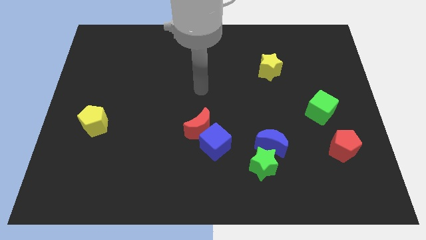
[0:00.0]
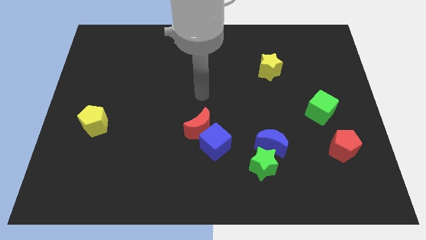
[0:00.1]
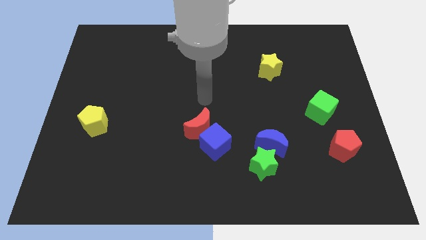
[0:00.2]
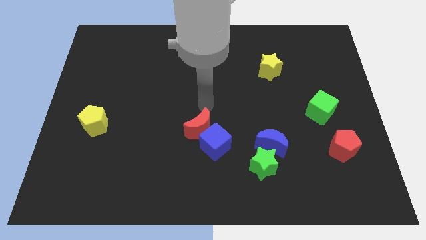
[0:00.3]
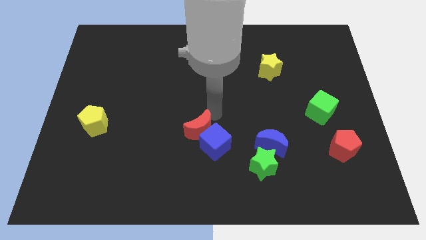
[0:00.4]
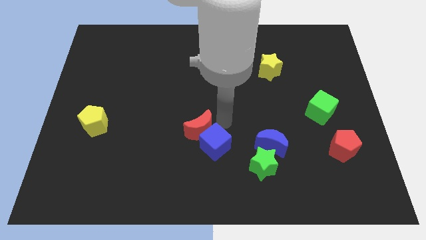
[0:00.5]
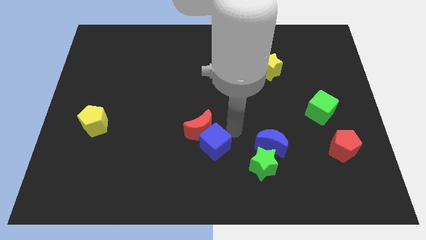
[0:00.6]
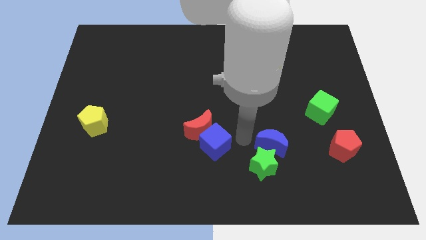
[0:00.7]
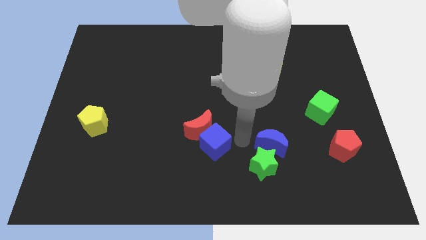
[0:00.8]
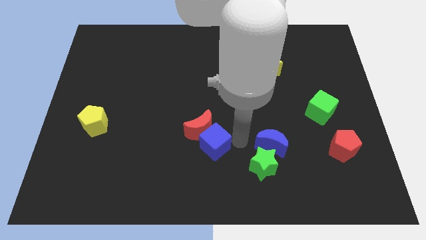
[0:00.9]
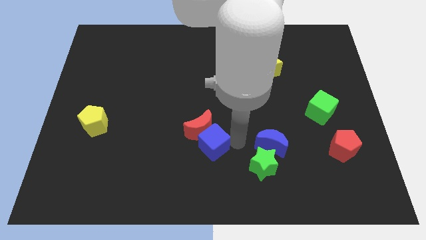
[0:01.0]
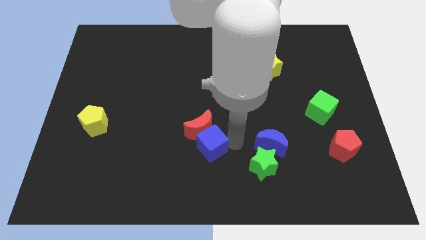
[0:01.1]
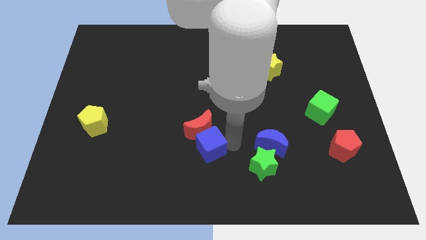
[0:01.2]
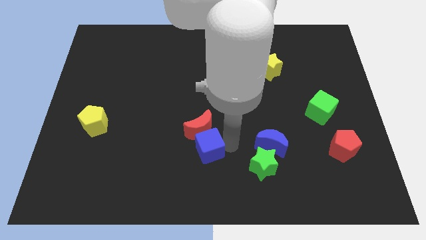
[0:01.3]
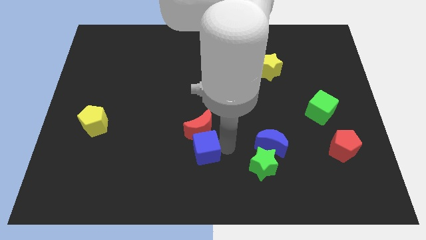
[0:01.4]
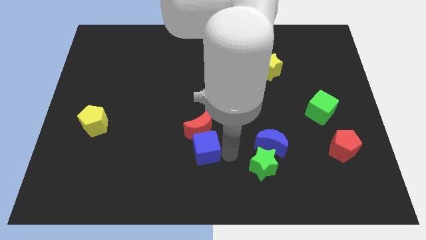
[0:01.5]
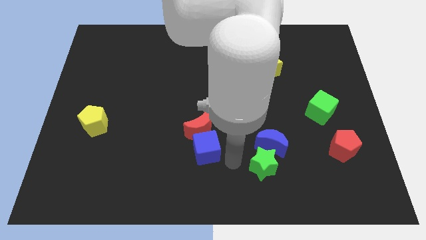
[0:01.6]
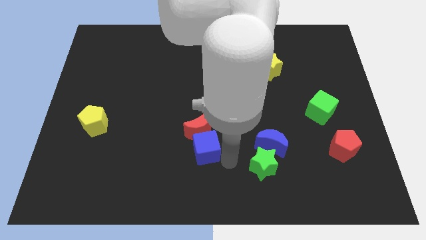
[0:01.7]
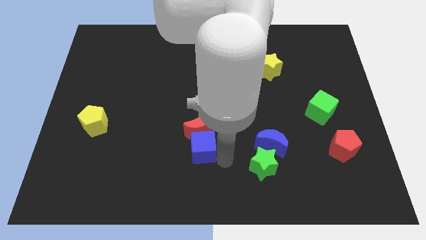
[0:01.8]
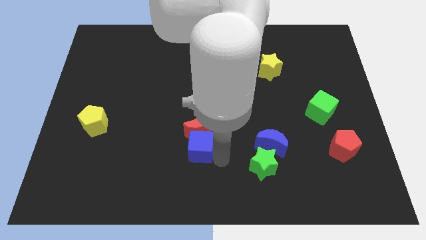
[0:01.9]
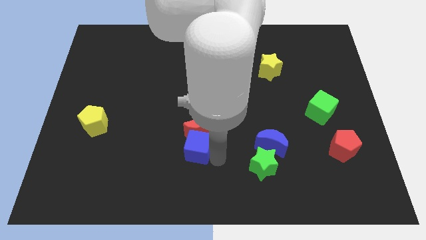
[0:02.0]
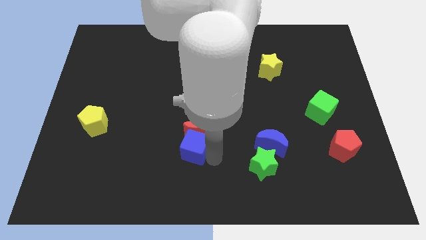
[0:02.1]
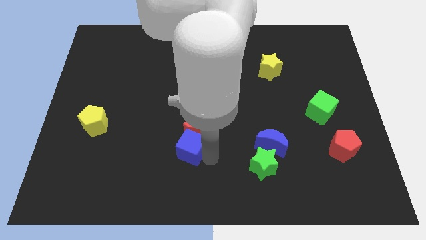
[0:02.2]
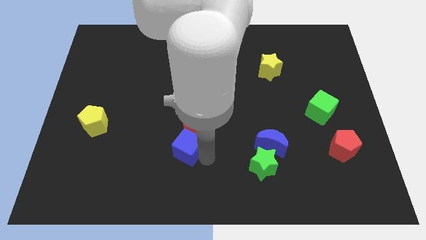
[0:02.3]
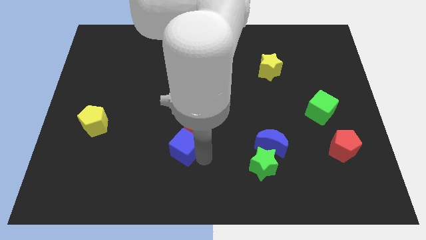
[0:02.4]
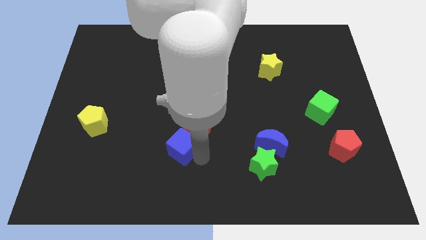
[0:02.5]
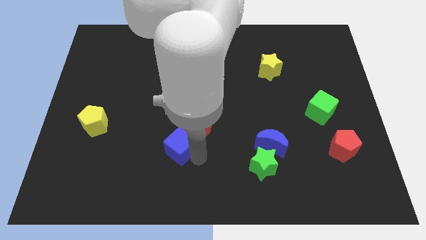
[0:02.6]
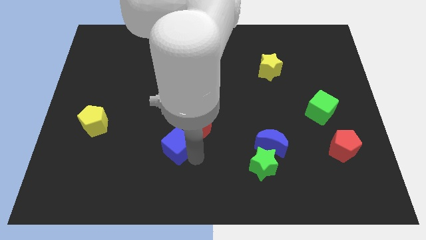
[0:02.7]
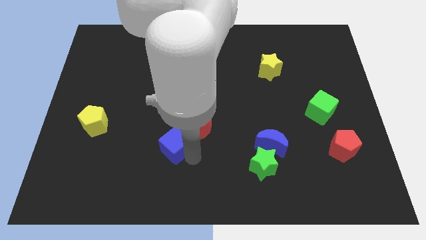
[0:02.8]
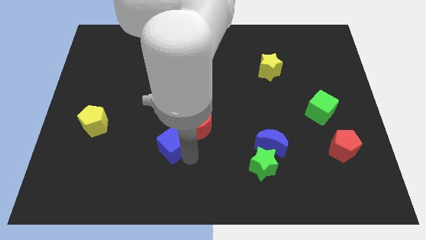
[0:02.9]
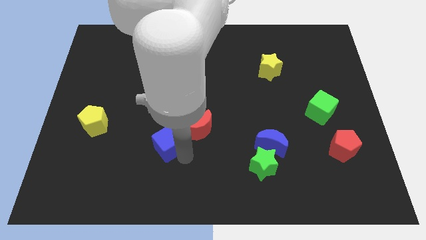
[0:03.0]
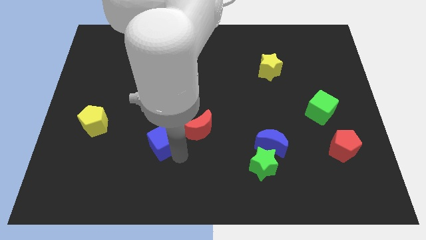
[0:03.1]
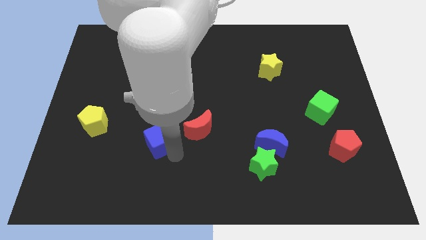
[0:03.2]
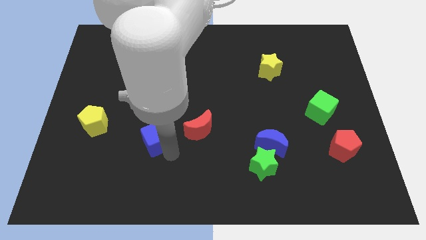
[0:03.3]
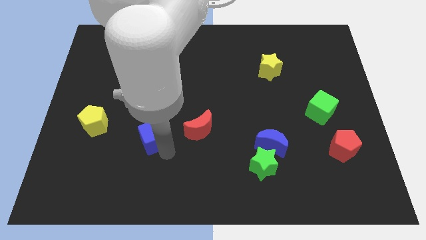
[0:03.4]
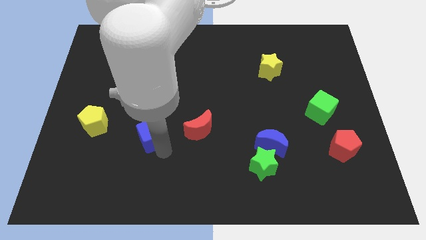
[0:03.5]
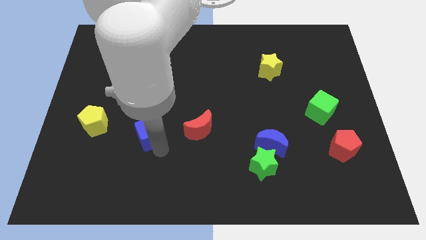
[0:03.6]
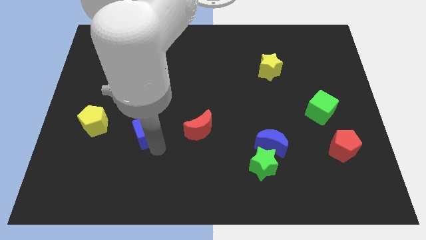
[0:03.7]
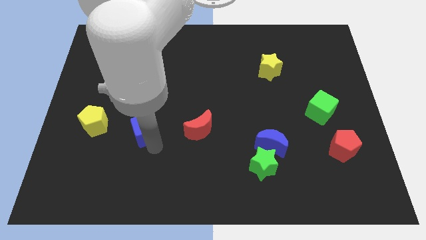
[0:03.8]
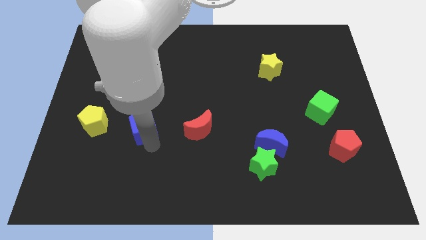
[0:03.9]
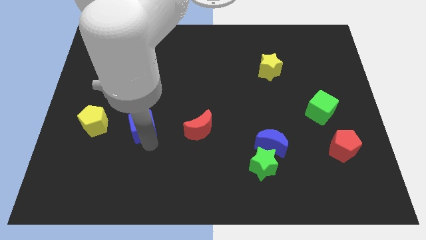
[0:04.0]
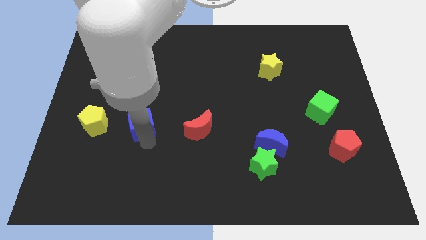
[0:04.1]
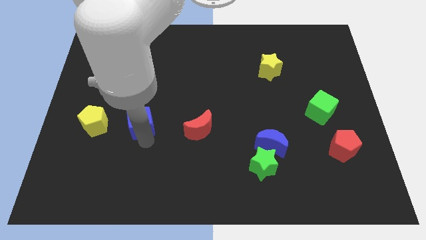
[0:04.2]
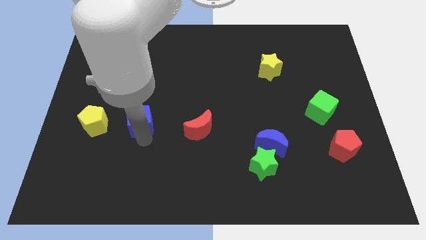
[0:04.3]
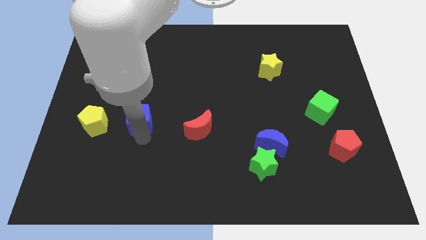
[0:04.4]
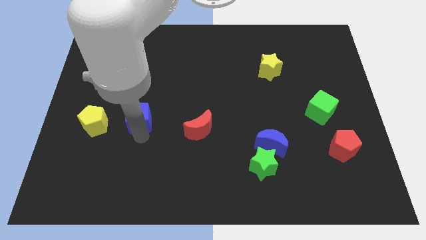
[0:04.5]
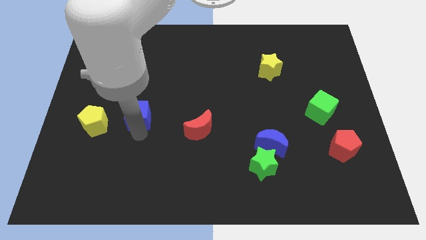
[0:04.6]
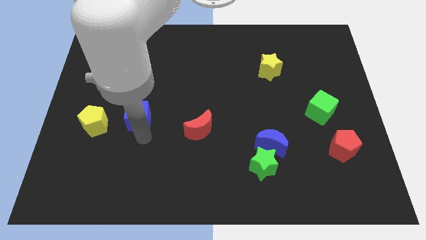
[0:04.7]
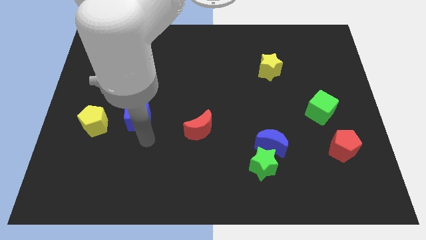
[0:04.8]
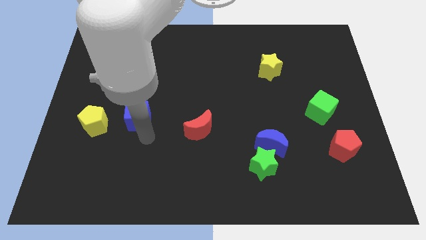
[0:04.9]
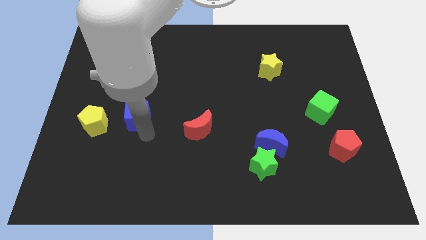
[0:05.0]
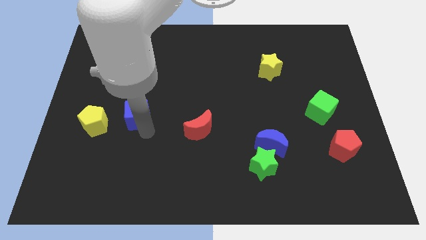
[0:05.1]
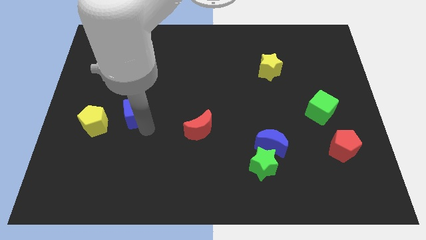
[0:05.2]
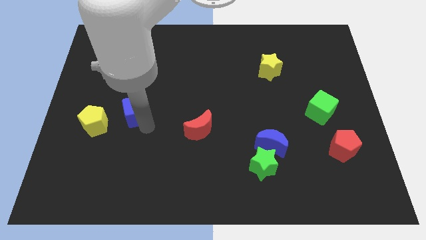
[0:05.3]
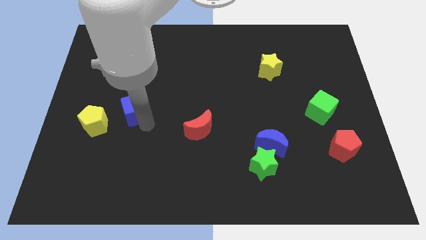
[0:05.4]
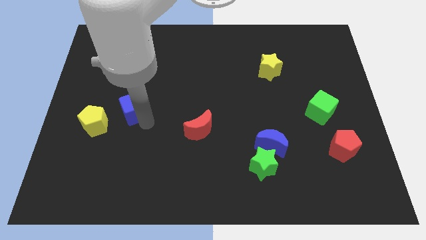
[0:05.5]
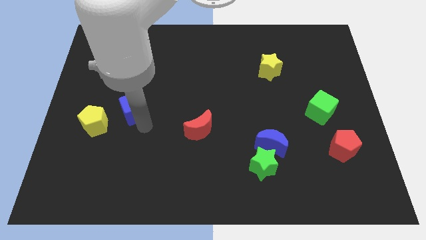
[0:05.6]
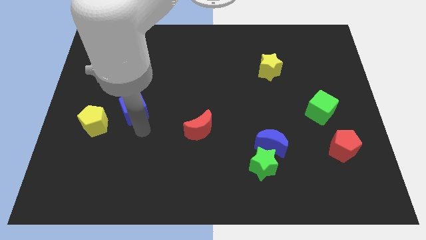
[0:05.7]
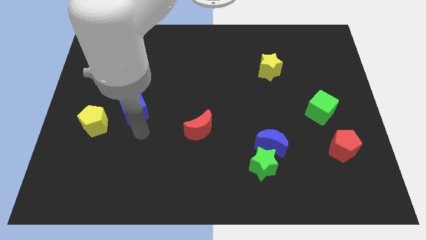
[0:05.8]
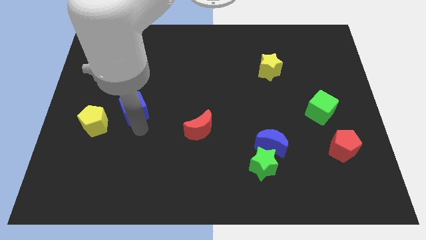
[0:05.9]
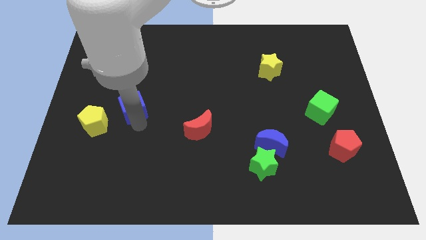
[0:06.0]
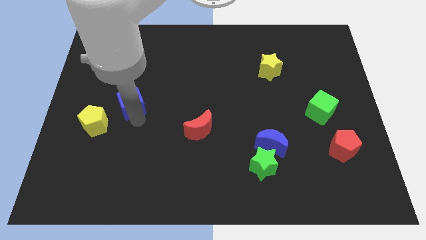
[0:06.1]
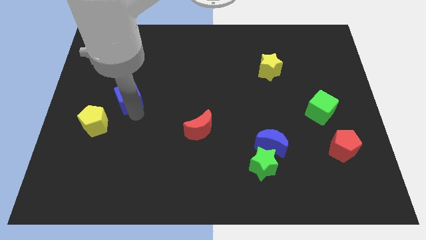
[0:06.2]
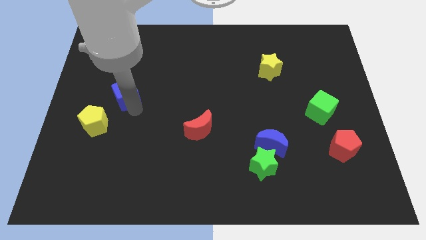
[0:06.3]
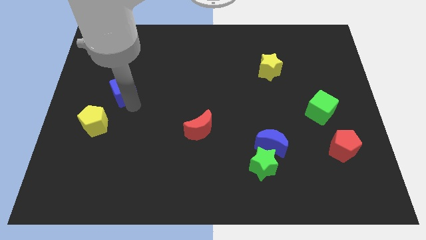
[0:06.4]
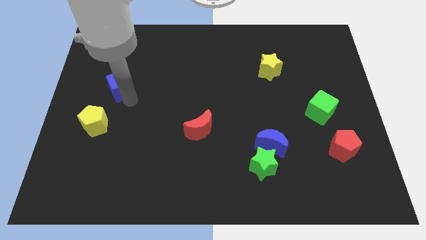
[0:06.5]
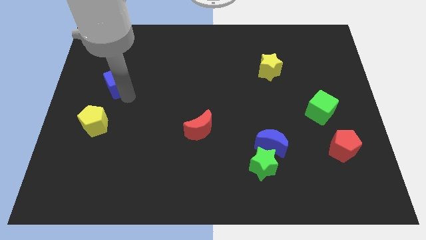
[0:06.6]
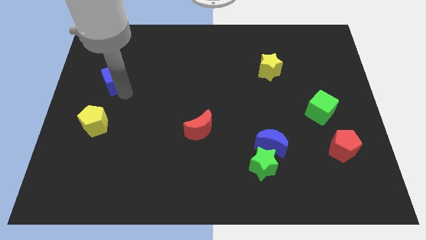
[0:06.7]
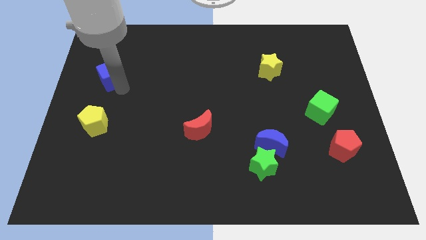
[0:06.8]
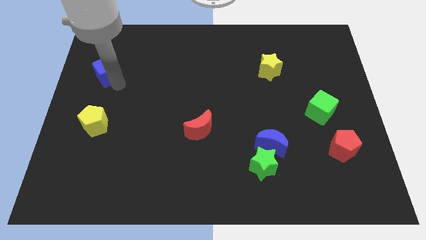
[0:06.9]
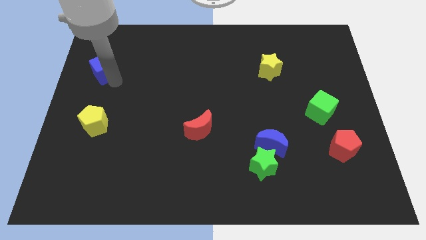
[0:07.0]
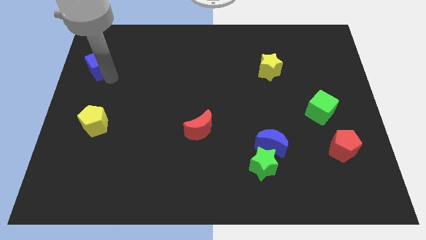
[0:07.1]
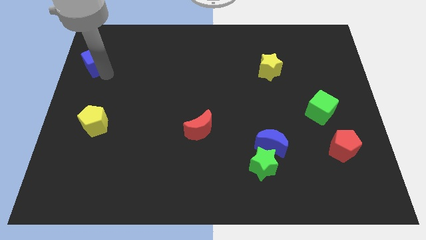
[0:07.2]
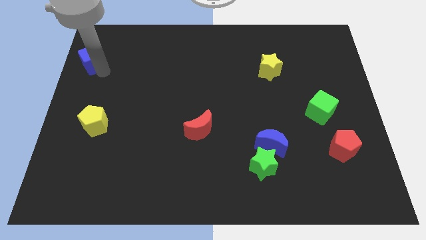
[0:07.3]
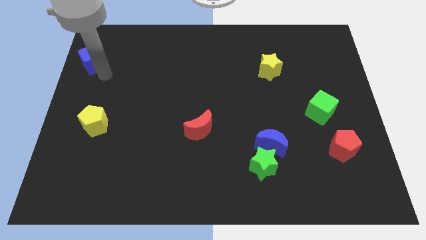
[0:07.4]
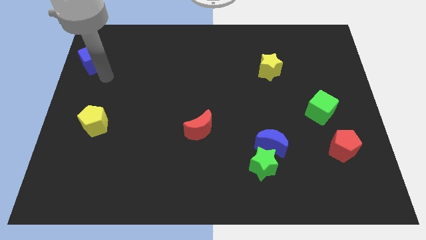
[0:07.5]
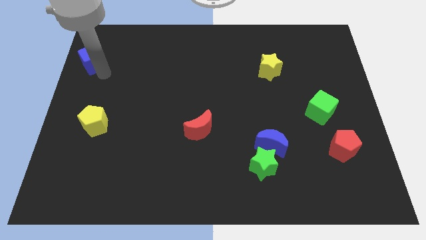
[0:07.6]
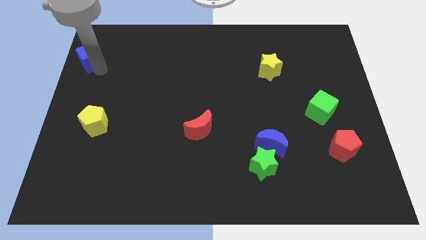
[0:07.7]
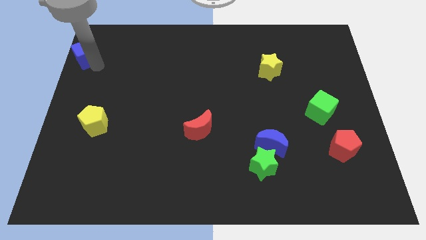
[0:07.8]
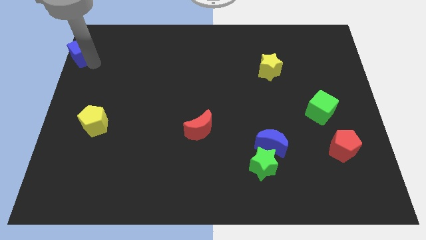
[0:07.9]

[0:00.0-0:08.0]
push the blue cube to the top left
